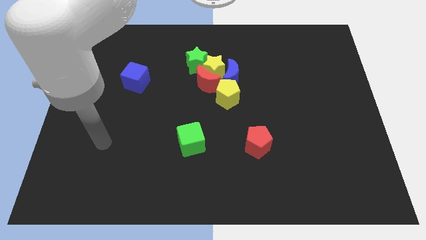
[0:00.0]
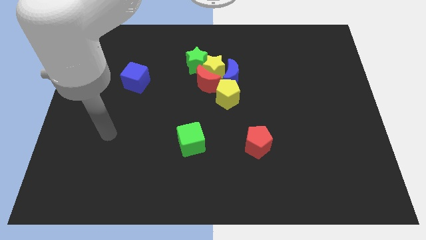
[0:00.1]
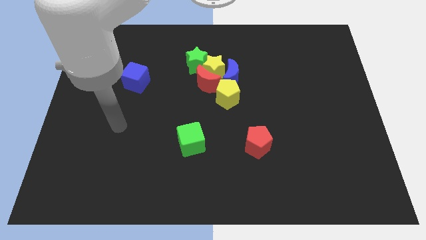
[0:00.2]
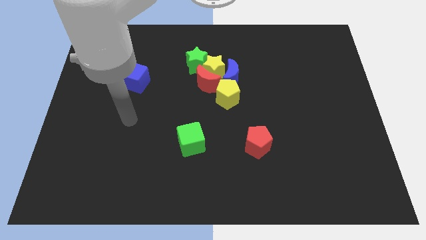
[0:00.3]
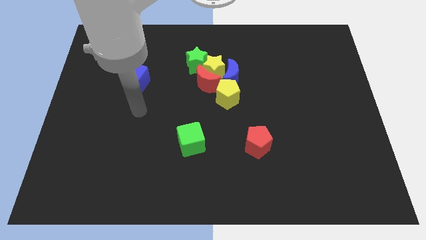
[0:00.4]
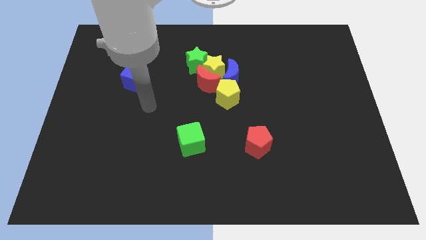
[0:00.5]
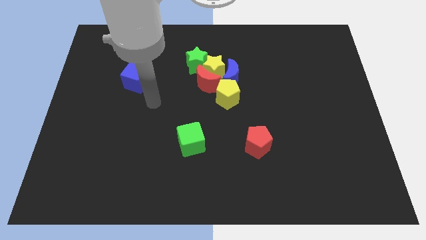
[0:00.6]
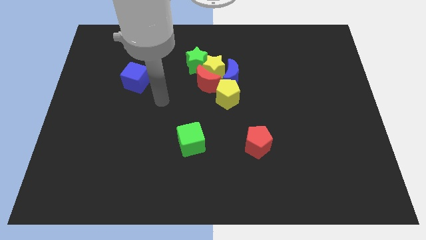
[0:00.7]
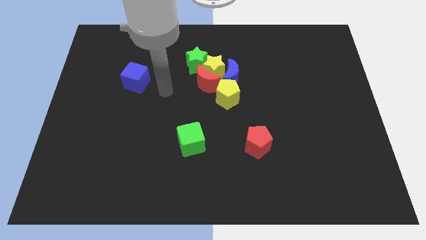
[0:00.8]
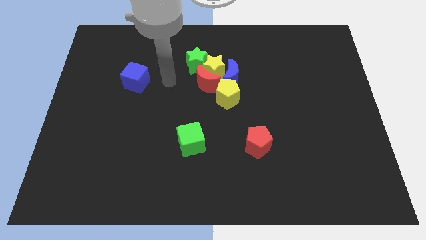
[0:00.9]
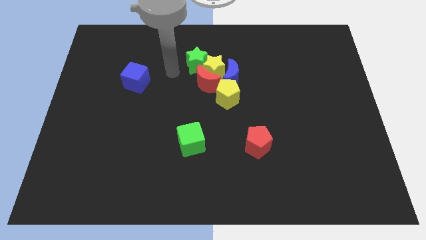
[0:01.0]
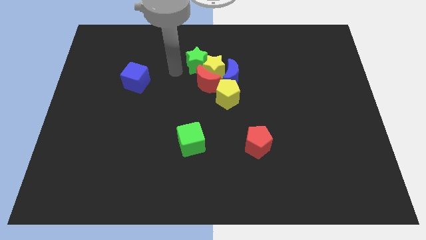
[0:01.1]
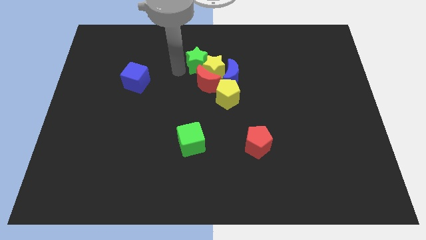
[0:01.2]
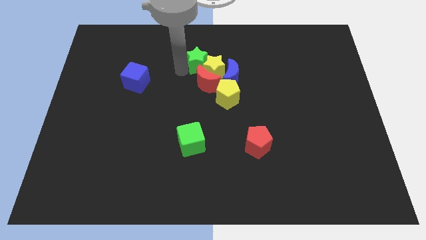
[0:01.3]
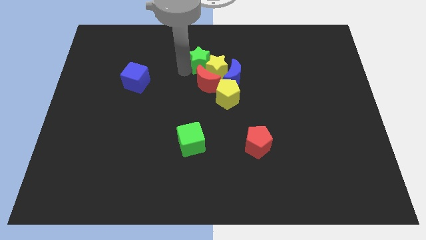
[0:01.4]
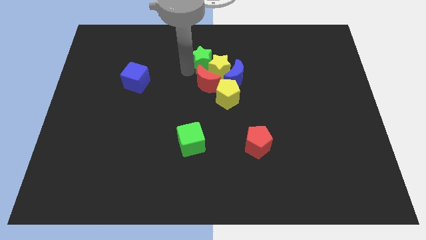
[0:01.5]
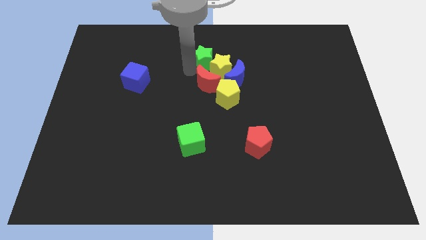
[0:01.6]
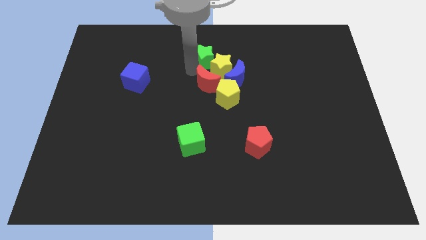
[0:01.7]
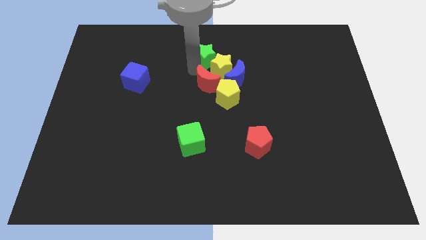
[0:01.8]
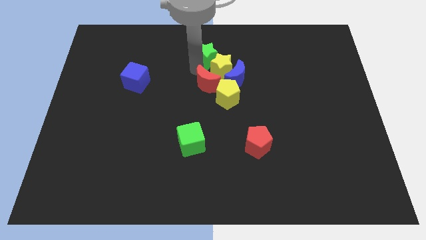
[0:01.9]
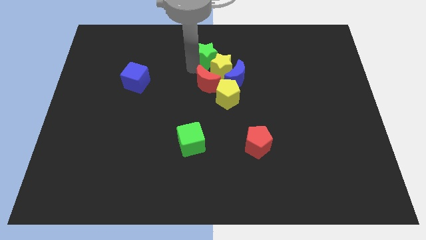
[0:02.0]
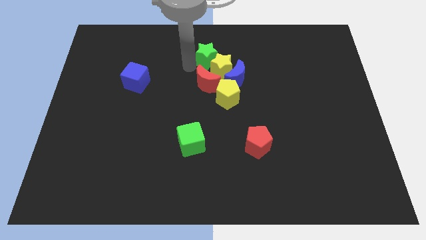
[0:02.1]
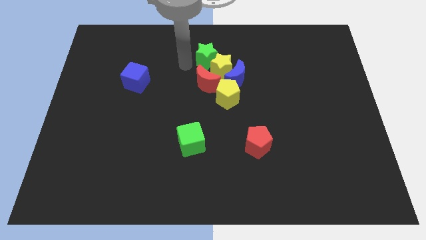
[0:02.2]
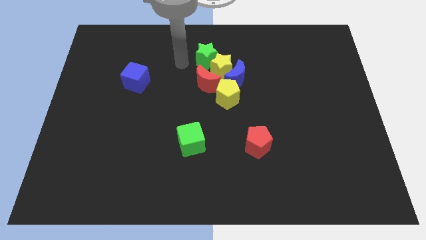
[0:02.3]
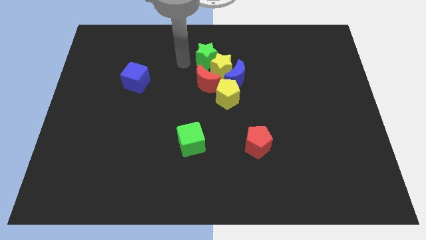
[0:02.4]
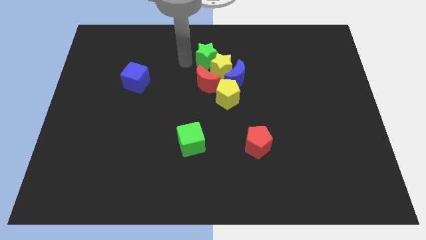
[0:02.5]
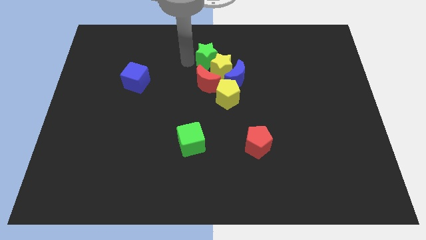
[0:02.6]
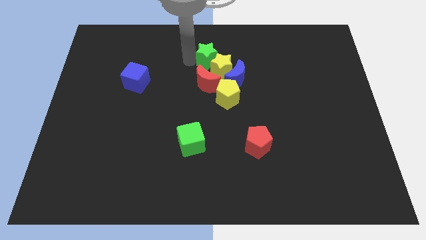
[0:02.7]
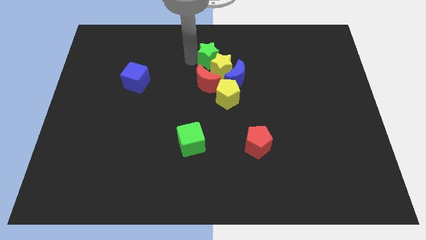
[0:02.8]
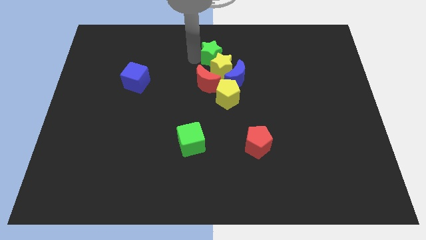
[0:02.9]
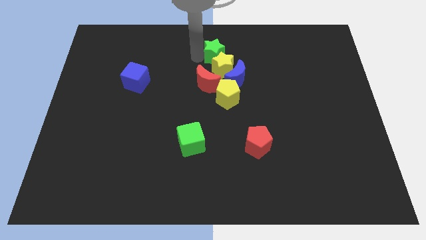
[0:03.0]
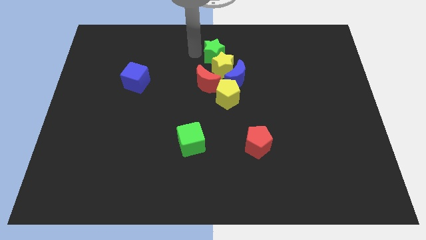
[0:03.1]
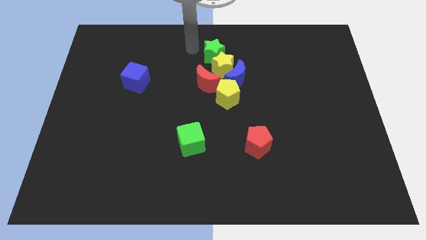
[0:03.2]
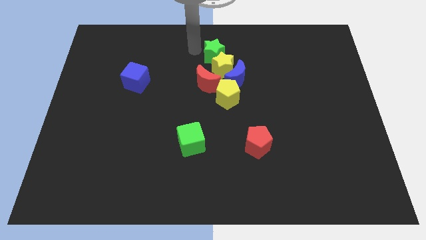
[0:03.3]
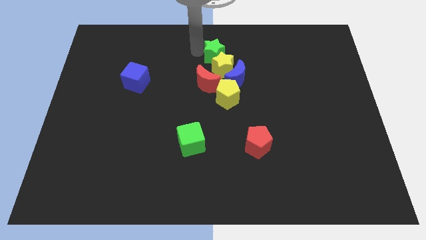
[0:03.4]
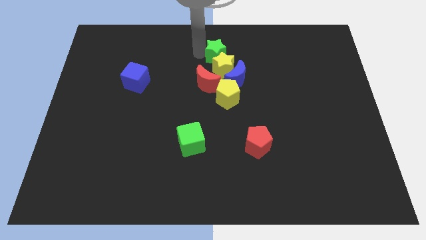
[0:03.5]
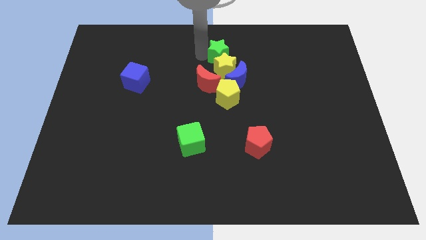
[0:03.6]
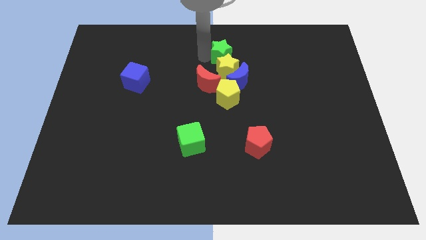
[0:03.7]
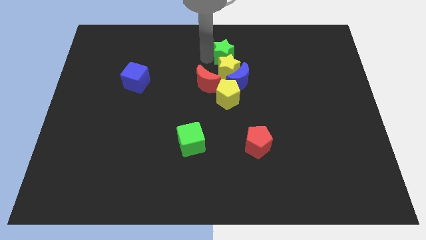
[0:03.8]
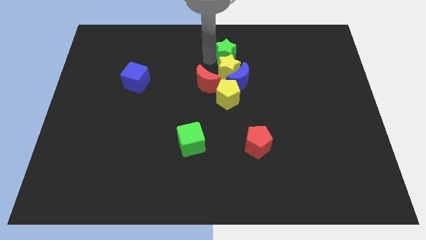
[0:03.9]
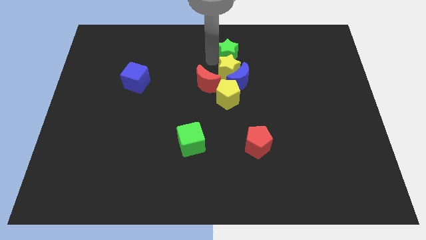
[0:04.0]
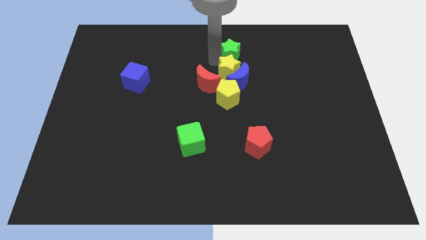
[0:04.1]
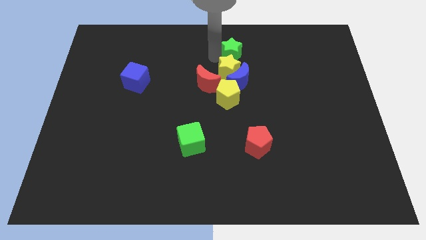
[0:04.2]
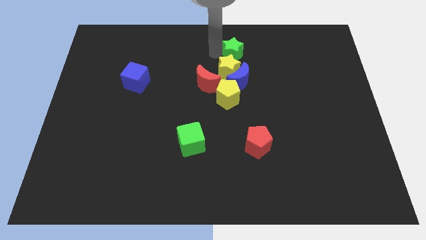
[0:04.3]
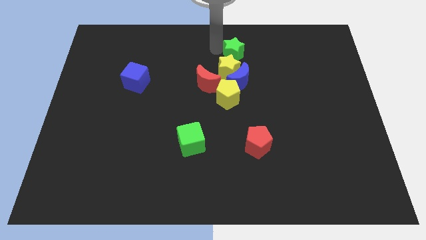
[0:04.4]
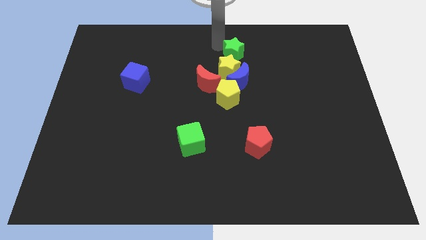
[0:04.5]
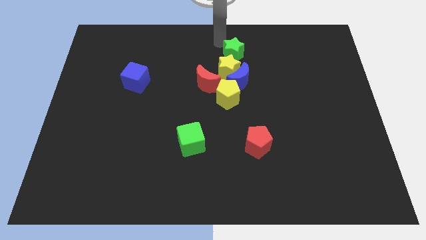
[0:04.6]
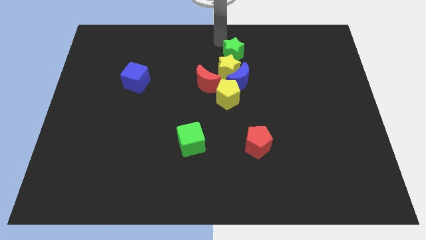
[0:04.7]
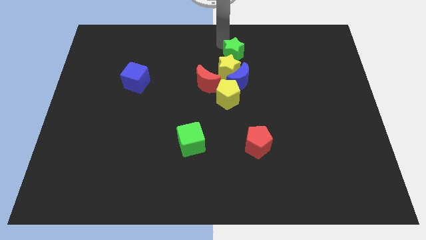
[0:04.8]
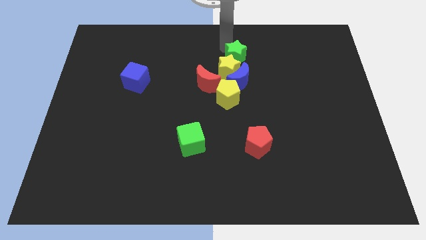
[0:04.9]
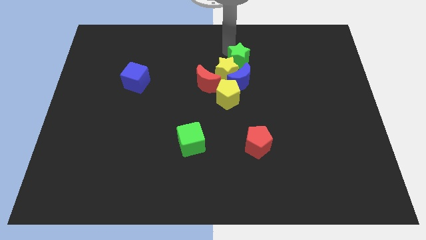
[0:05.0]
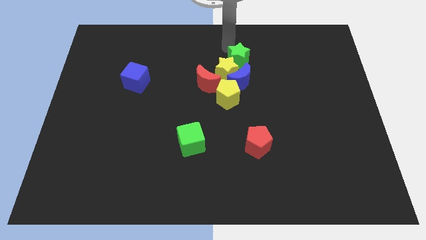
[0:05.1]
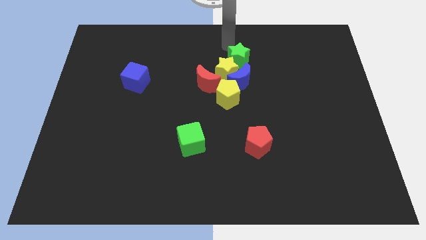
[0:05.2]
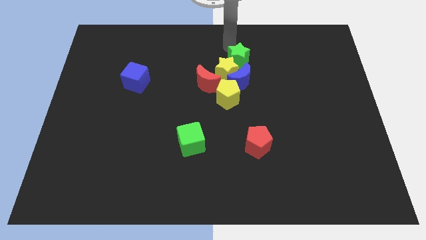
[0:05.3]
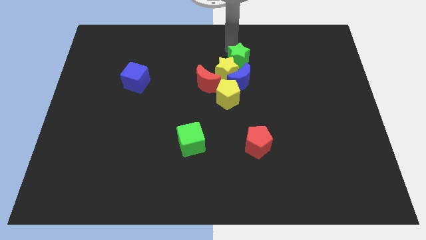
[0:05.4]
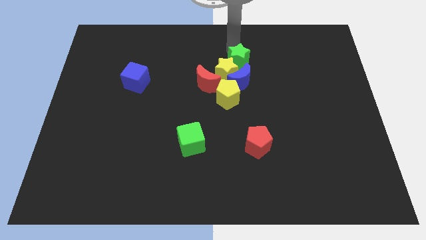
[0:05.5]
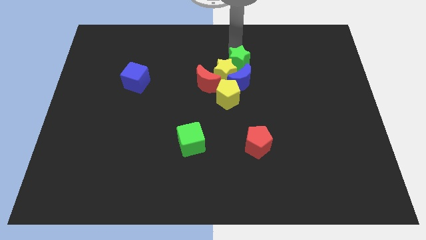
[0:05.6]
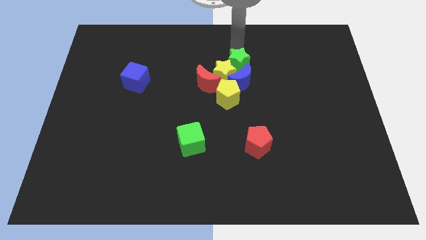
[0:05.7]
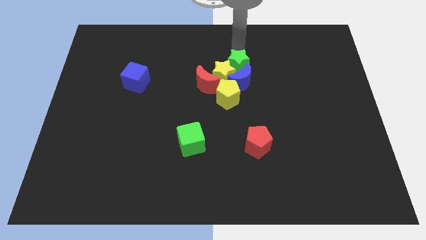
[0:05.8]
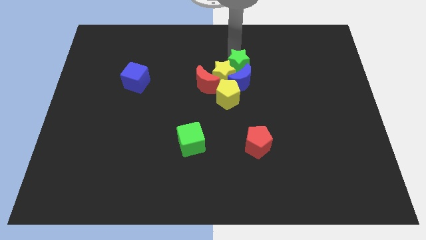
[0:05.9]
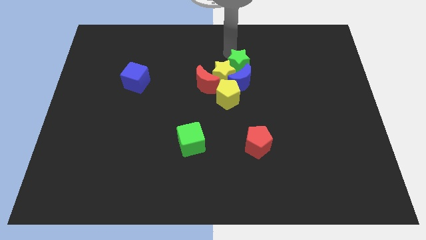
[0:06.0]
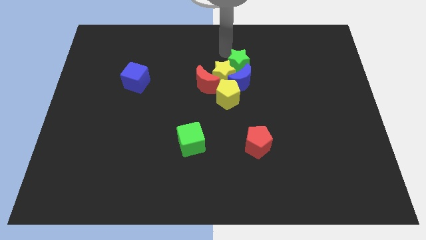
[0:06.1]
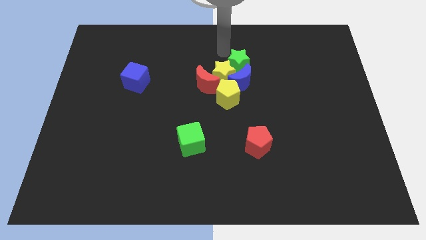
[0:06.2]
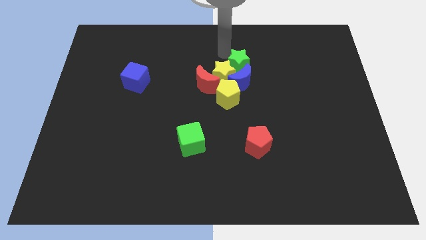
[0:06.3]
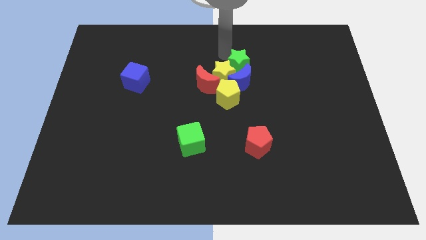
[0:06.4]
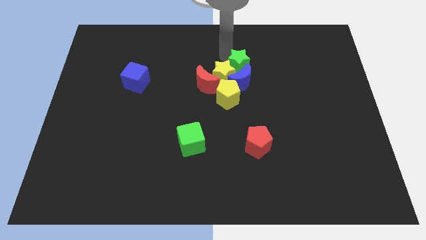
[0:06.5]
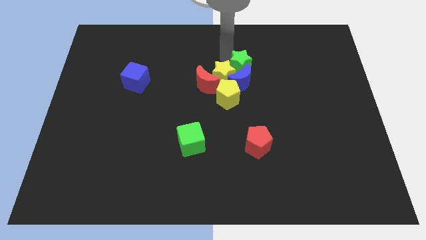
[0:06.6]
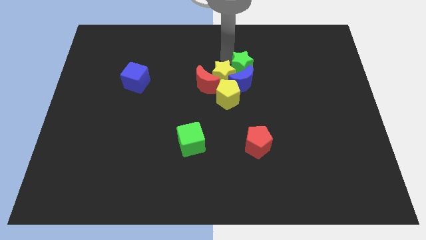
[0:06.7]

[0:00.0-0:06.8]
slide the green star a little downwards and then right

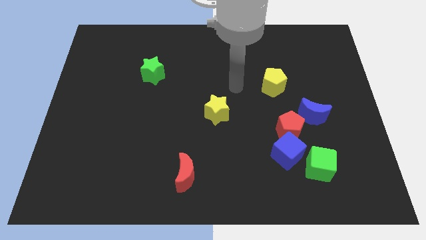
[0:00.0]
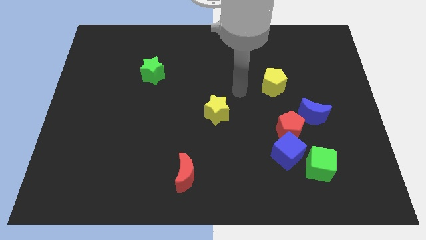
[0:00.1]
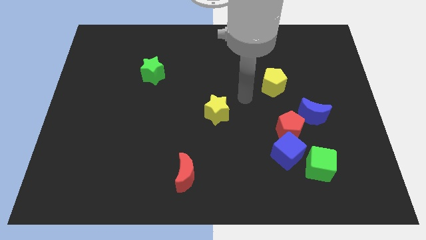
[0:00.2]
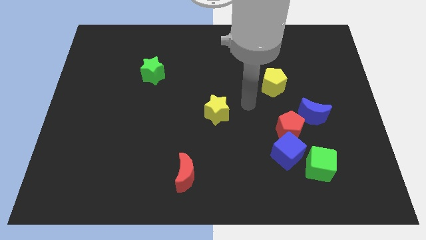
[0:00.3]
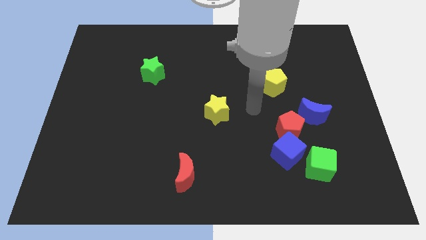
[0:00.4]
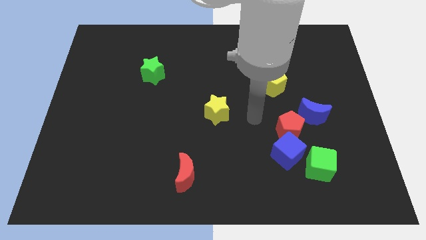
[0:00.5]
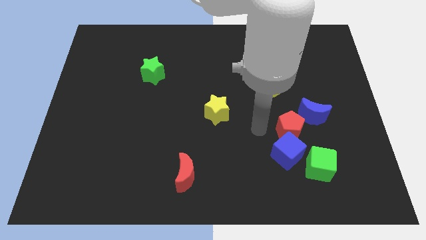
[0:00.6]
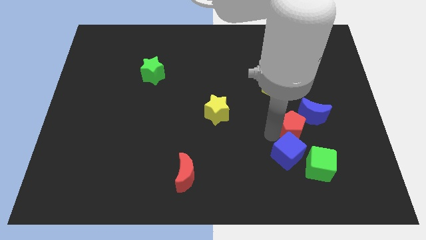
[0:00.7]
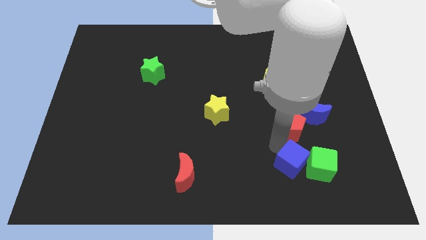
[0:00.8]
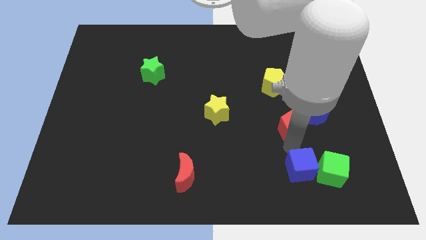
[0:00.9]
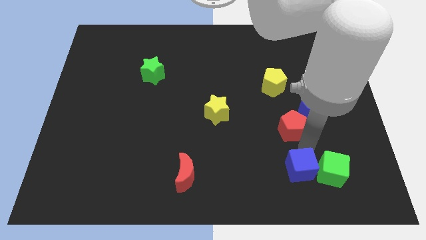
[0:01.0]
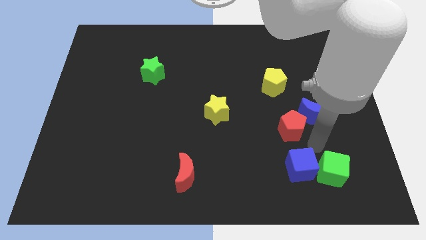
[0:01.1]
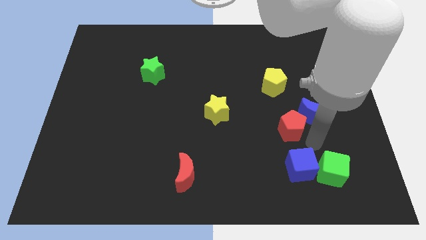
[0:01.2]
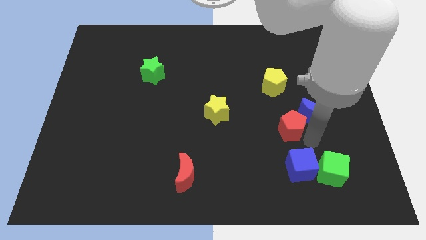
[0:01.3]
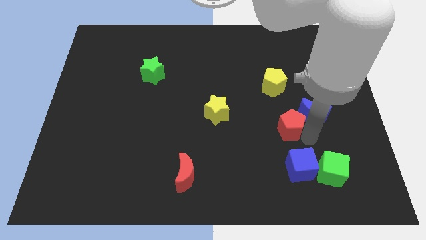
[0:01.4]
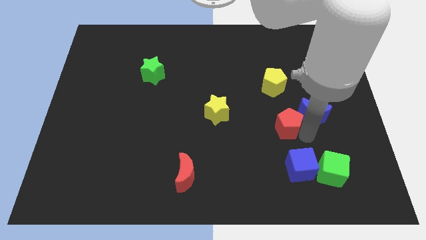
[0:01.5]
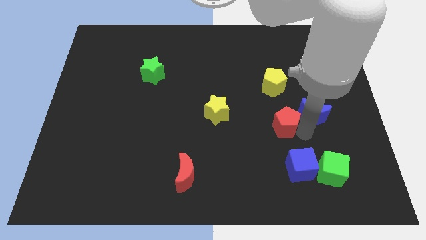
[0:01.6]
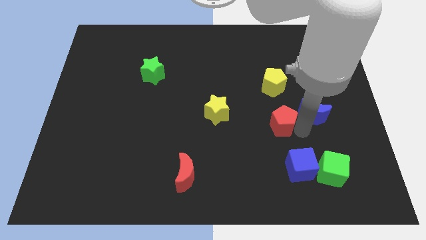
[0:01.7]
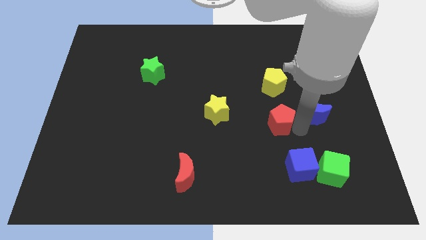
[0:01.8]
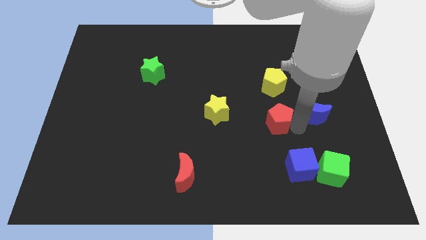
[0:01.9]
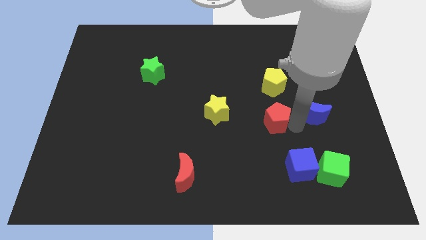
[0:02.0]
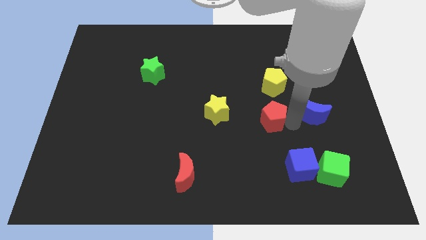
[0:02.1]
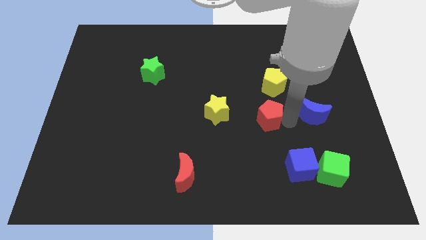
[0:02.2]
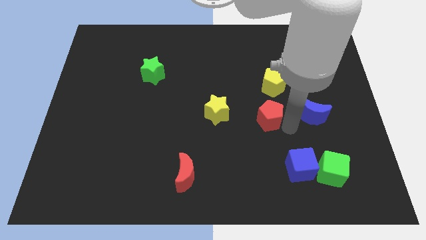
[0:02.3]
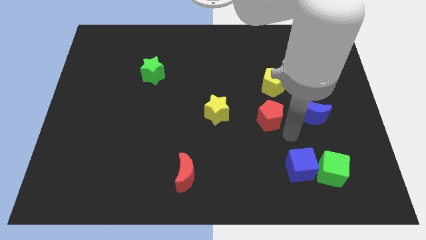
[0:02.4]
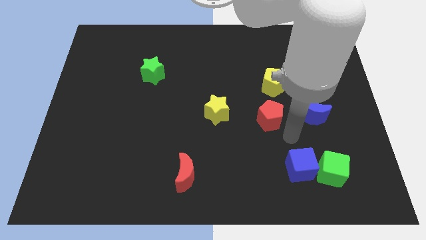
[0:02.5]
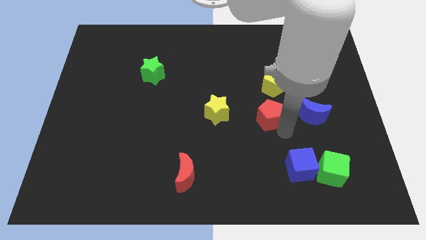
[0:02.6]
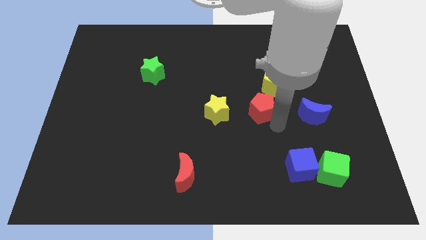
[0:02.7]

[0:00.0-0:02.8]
move the red pentagon upwards and to the left diagonally a little bit
